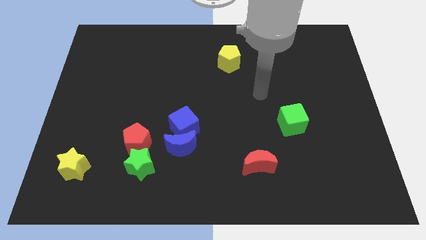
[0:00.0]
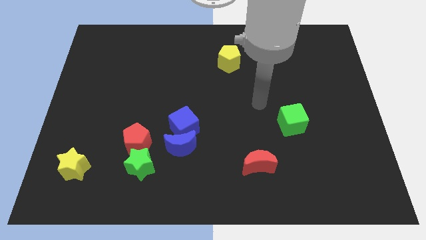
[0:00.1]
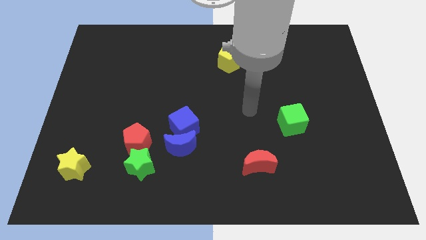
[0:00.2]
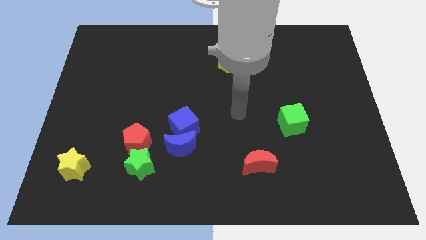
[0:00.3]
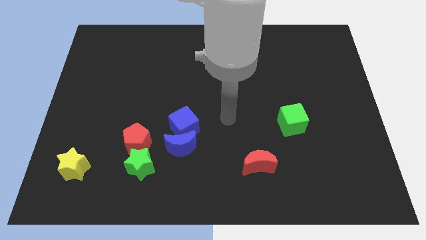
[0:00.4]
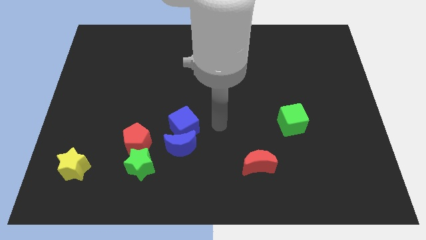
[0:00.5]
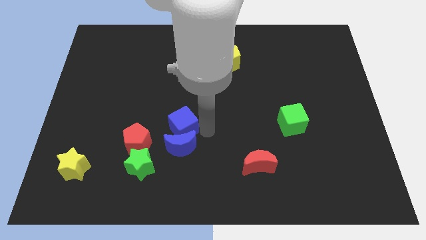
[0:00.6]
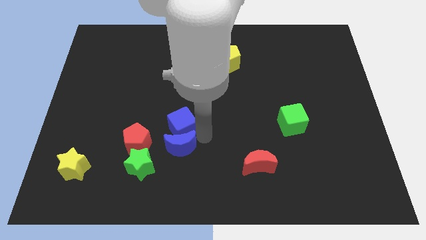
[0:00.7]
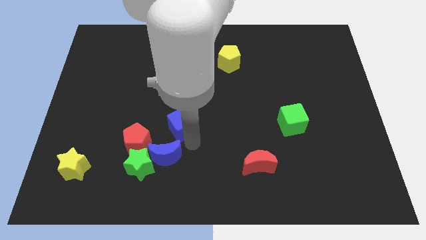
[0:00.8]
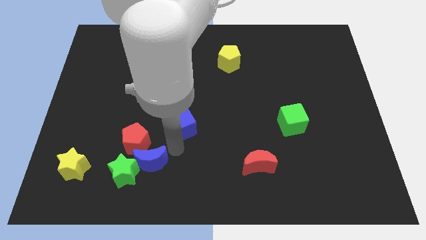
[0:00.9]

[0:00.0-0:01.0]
separate the blue cube from the blue moon

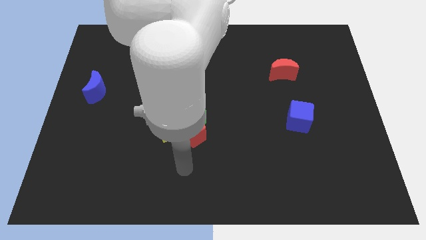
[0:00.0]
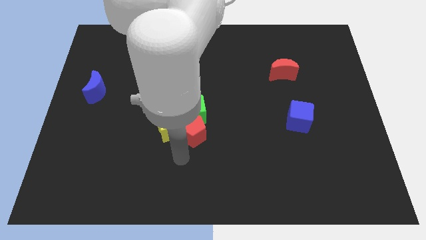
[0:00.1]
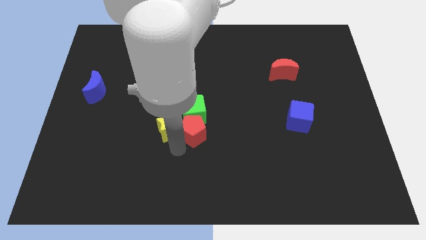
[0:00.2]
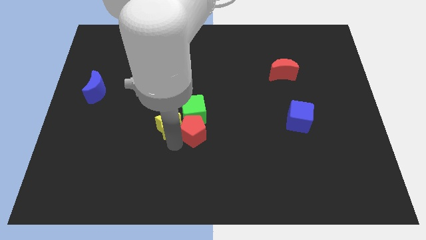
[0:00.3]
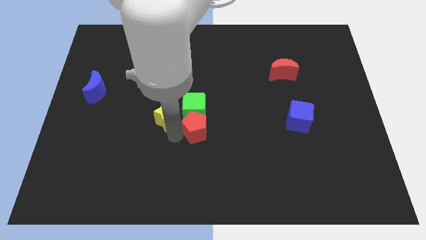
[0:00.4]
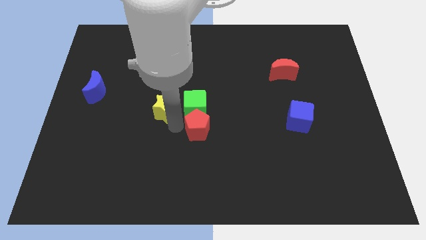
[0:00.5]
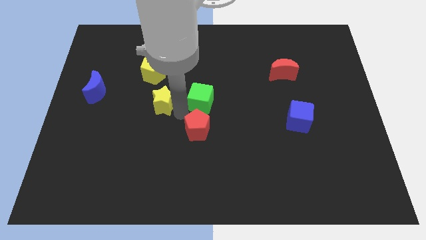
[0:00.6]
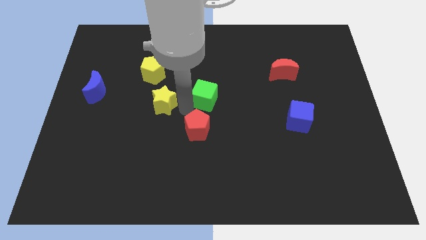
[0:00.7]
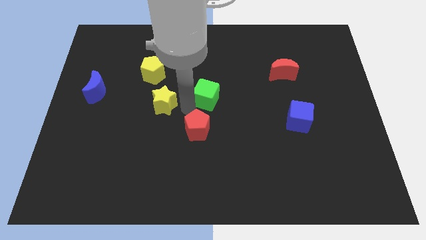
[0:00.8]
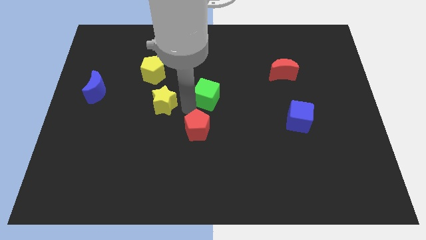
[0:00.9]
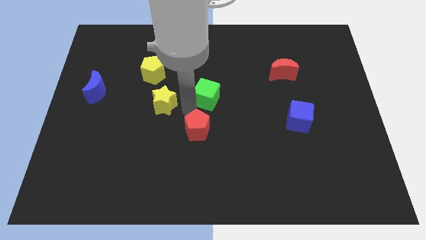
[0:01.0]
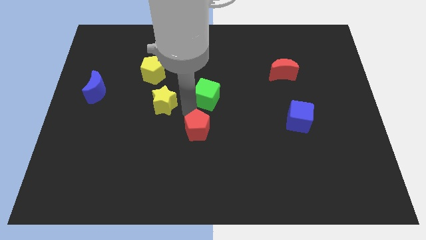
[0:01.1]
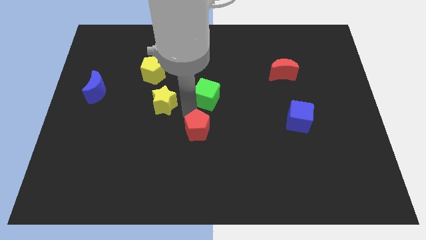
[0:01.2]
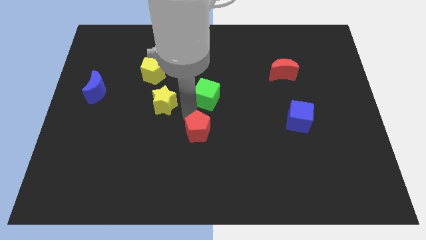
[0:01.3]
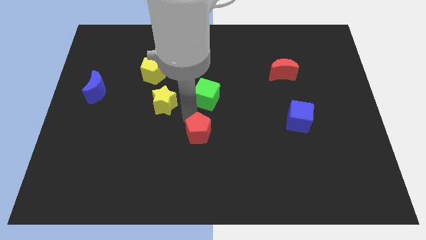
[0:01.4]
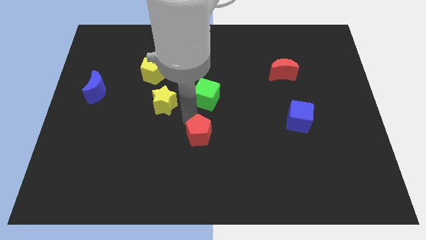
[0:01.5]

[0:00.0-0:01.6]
separate the red pentagon from the yellow star and green cube

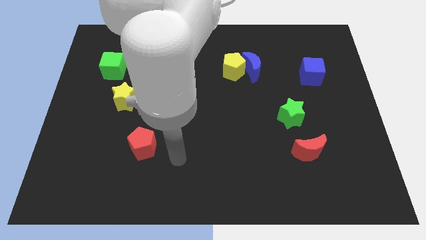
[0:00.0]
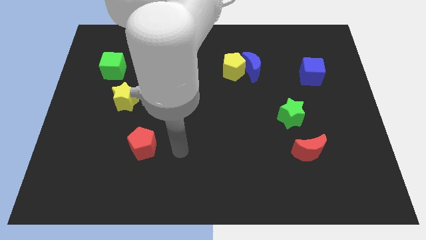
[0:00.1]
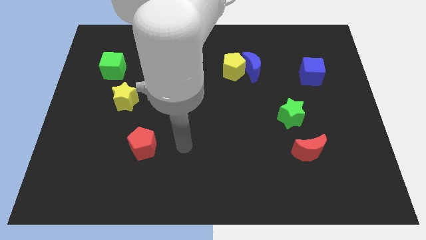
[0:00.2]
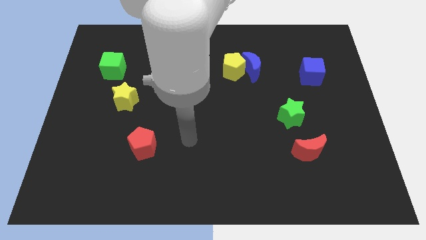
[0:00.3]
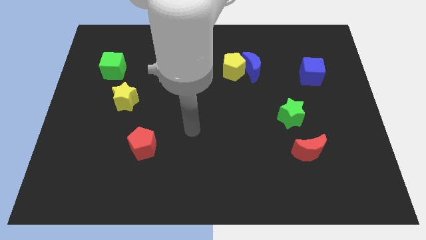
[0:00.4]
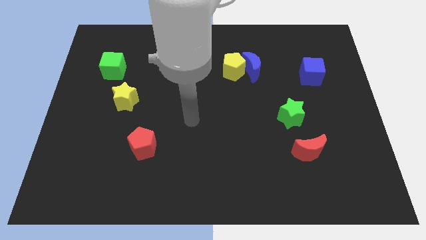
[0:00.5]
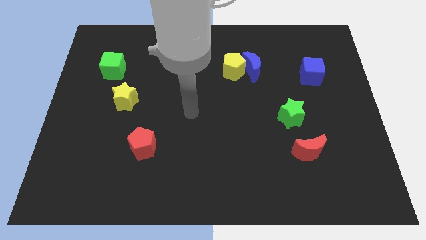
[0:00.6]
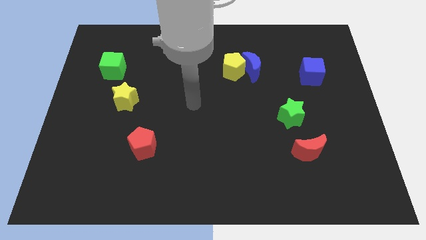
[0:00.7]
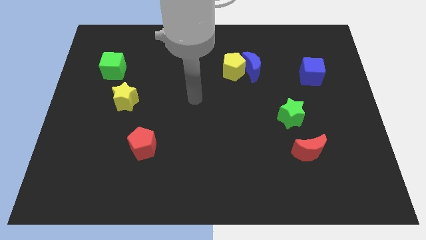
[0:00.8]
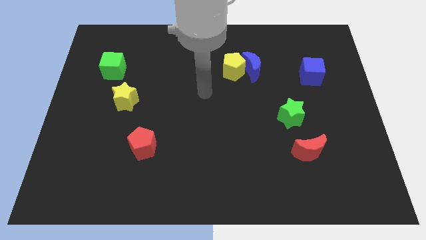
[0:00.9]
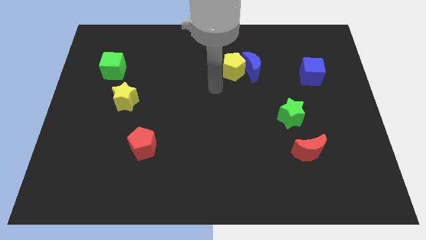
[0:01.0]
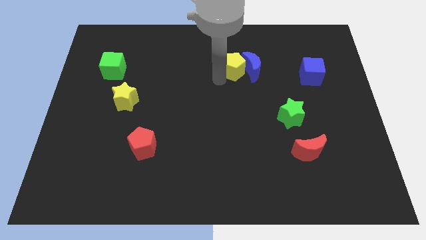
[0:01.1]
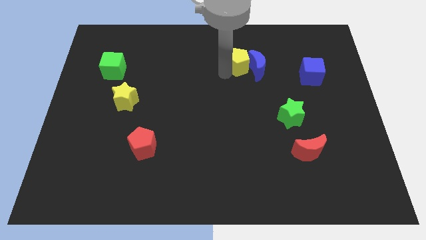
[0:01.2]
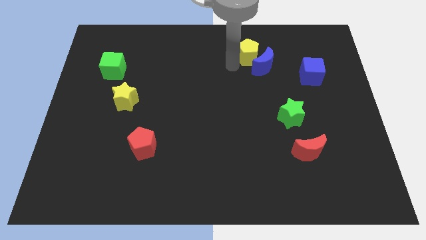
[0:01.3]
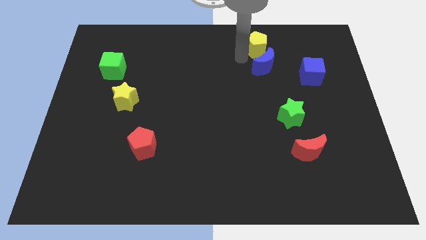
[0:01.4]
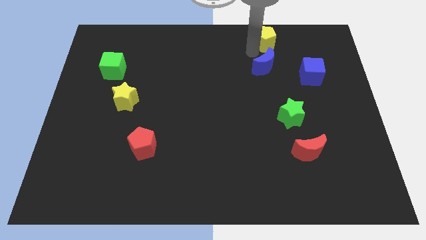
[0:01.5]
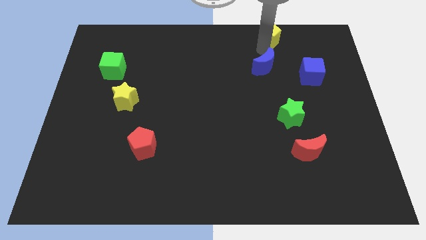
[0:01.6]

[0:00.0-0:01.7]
move the blue moon away from the yellow pentagon

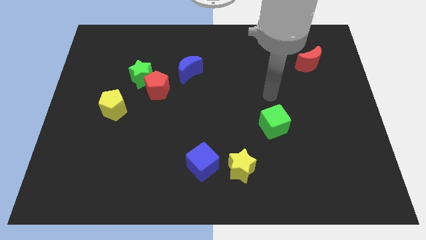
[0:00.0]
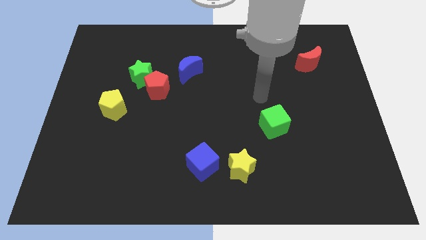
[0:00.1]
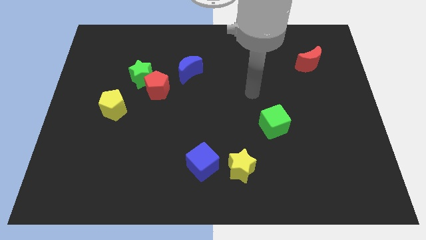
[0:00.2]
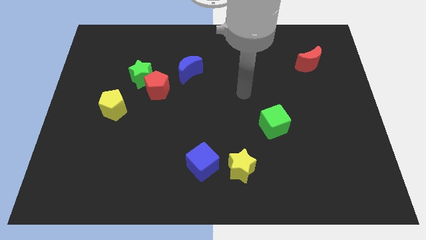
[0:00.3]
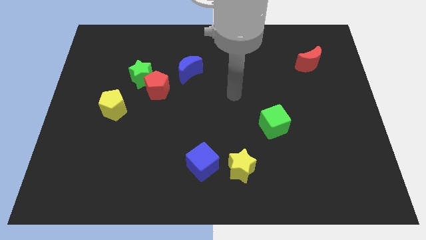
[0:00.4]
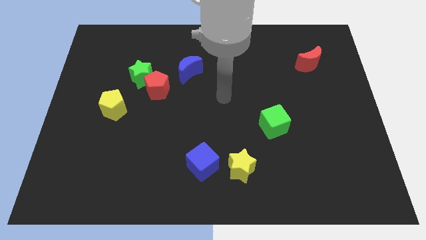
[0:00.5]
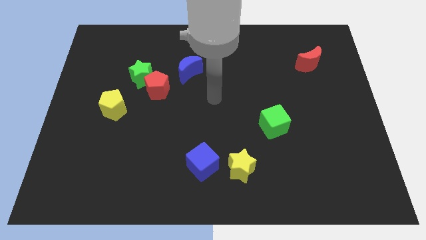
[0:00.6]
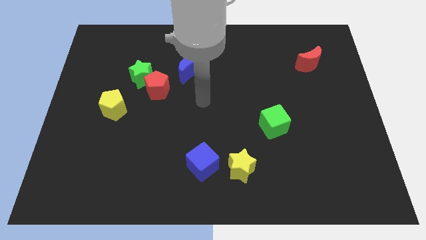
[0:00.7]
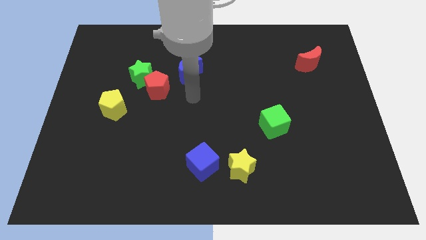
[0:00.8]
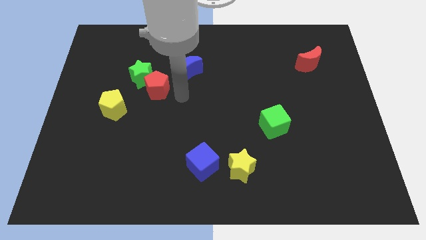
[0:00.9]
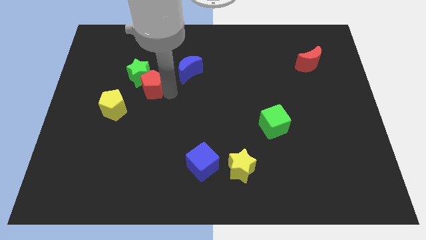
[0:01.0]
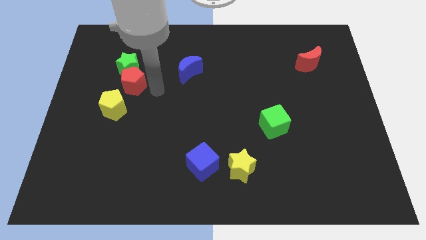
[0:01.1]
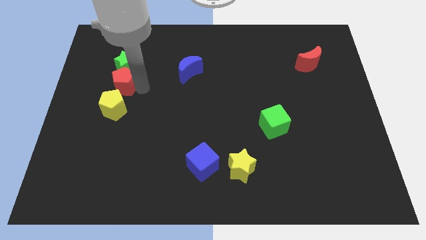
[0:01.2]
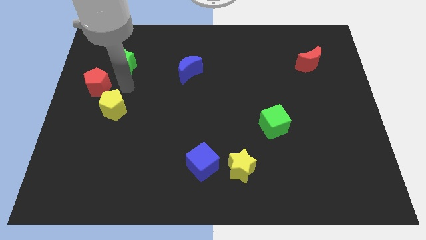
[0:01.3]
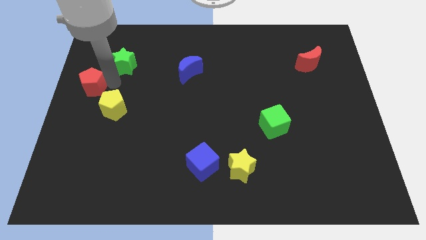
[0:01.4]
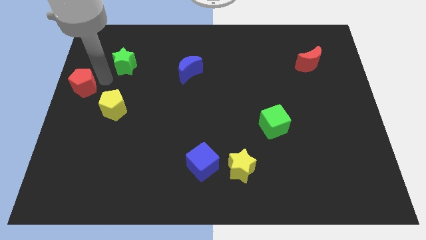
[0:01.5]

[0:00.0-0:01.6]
separate the green star from the red pentagon

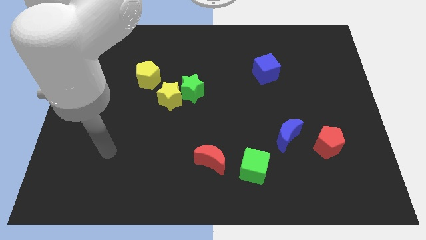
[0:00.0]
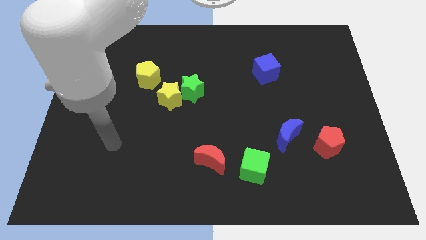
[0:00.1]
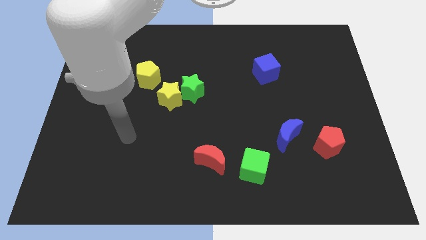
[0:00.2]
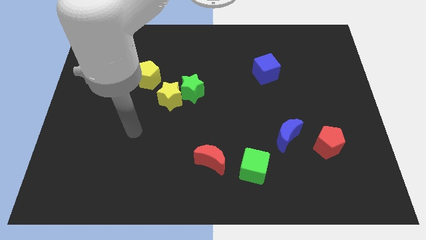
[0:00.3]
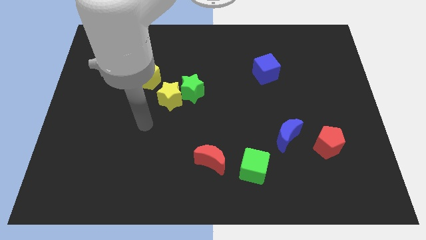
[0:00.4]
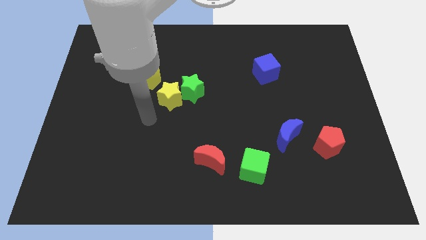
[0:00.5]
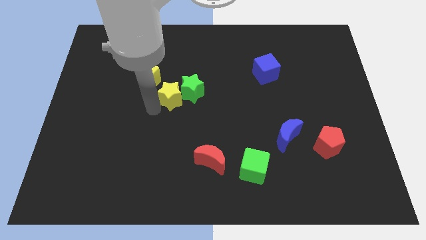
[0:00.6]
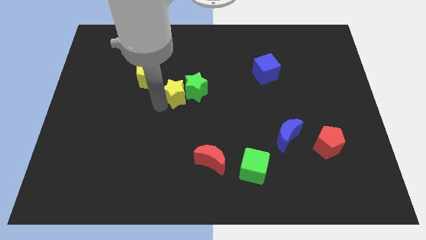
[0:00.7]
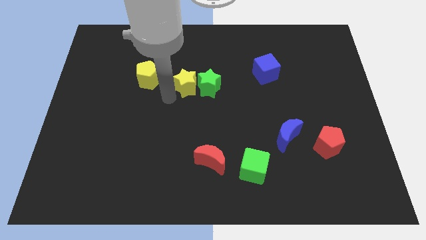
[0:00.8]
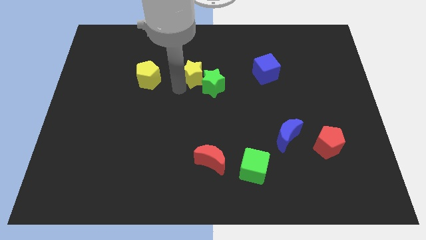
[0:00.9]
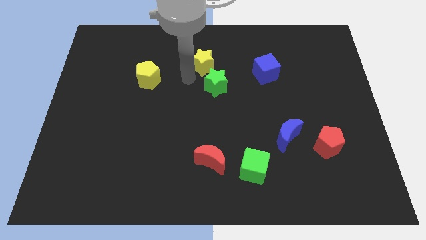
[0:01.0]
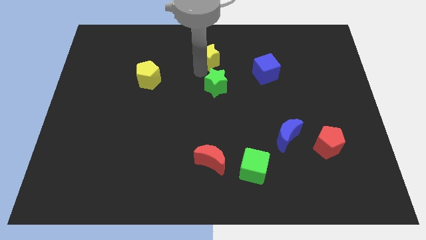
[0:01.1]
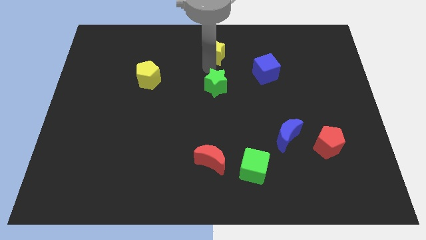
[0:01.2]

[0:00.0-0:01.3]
separate the green star from the yellow star

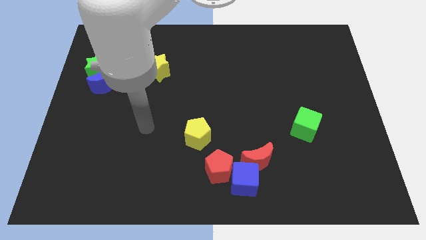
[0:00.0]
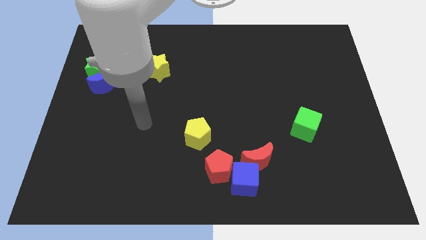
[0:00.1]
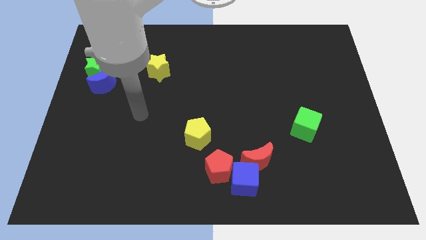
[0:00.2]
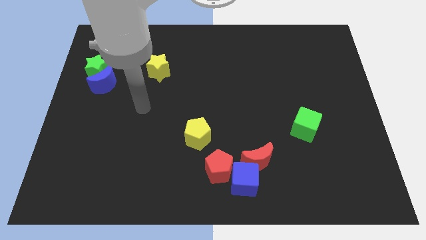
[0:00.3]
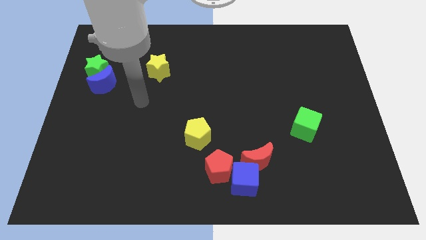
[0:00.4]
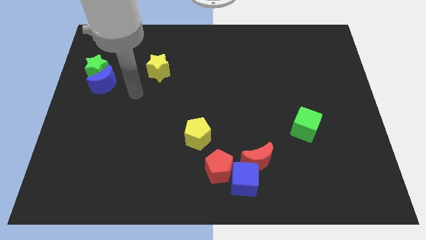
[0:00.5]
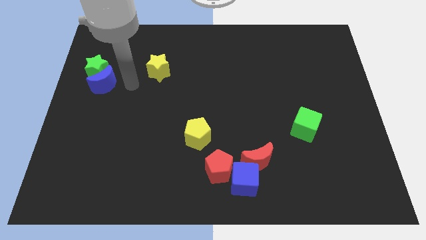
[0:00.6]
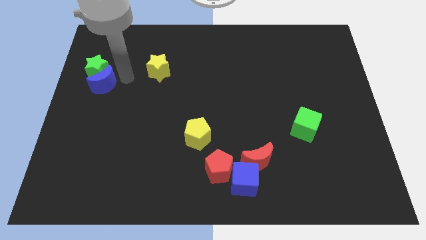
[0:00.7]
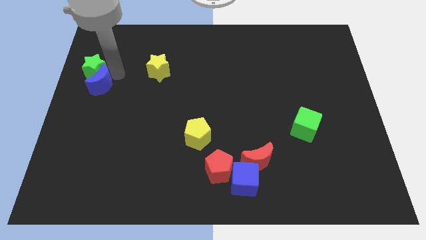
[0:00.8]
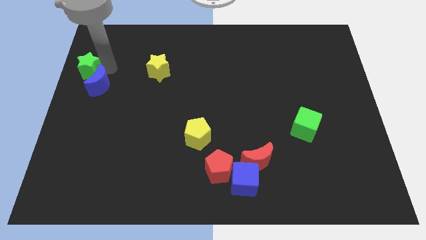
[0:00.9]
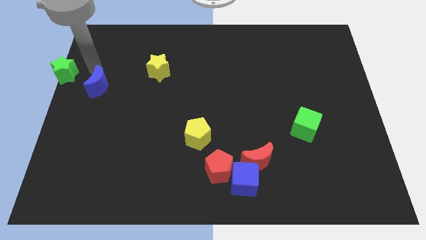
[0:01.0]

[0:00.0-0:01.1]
separate the blue moon from the green star

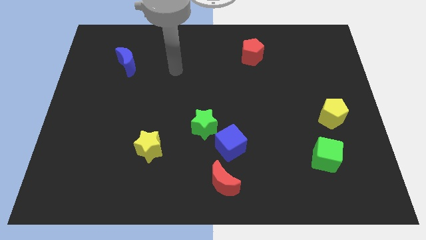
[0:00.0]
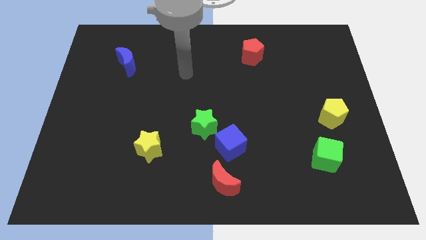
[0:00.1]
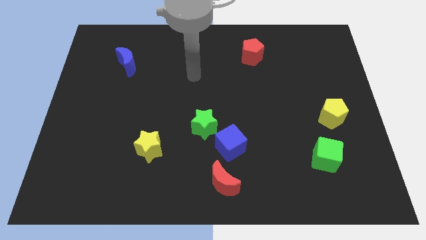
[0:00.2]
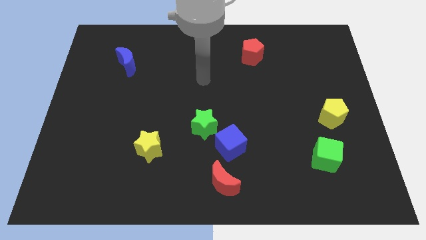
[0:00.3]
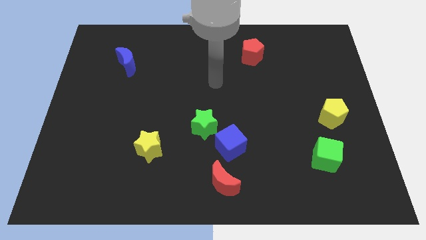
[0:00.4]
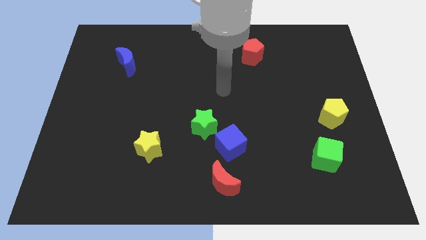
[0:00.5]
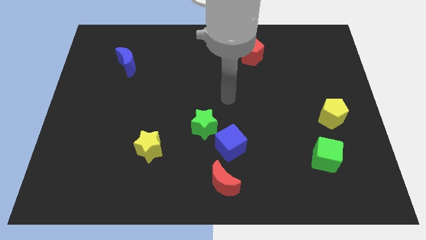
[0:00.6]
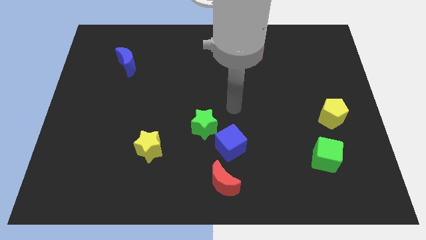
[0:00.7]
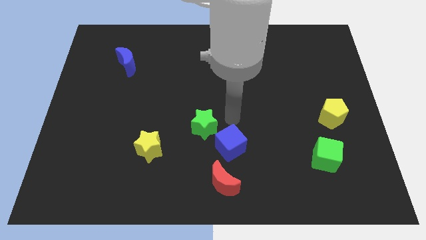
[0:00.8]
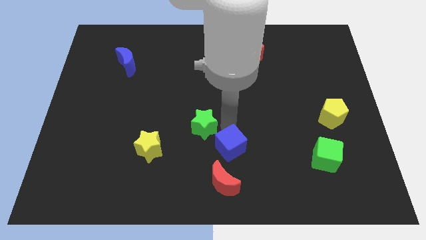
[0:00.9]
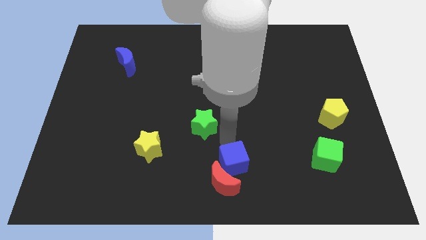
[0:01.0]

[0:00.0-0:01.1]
separate the green star from the blue cube
